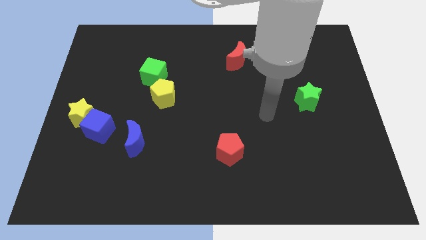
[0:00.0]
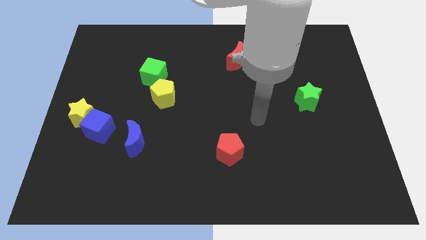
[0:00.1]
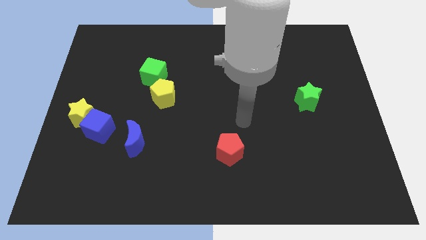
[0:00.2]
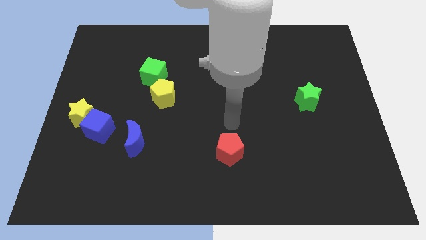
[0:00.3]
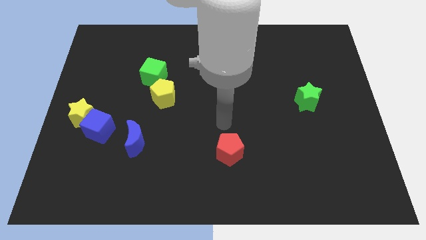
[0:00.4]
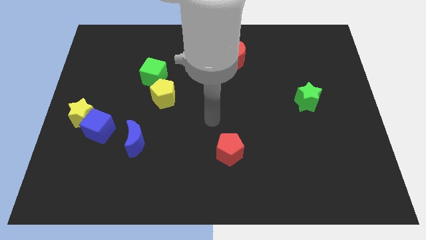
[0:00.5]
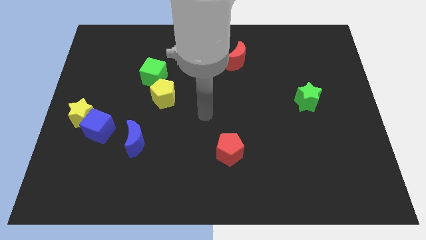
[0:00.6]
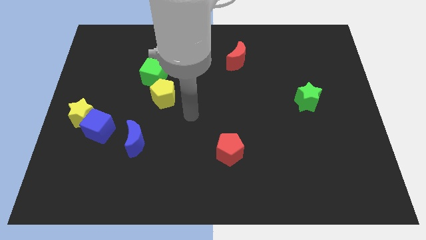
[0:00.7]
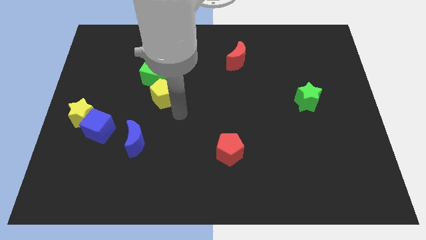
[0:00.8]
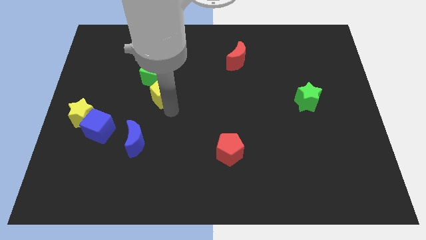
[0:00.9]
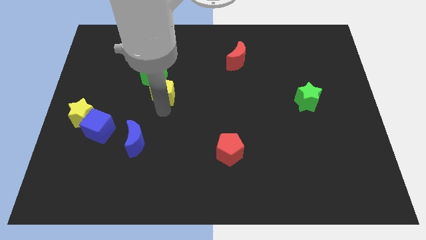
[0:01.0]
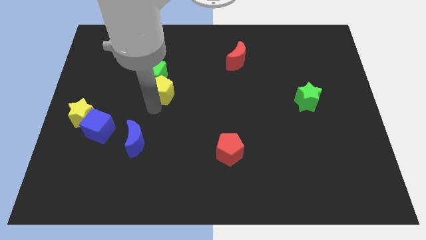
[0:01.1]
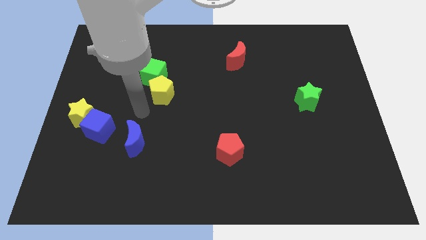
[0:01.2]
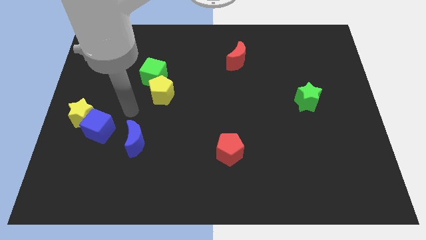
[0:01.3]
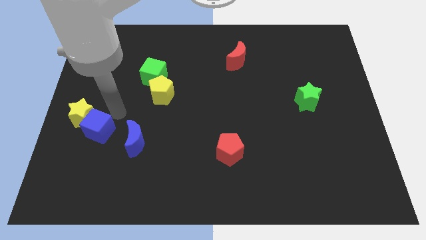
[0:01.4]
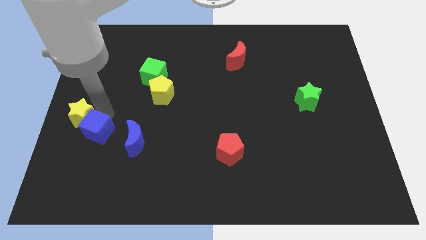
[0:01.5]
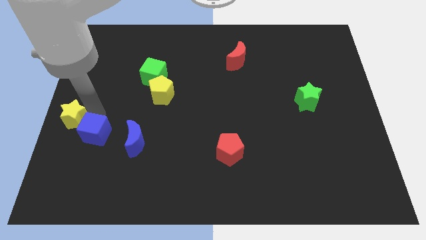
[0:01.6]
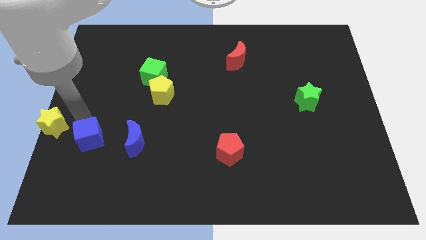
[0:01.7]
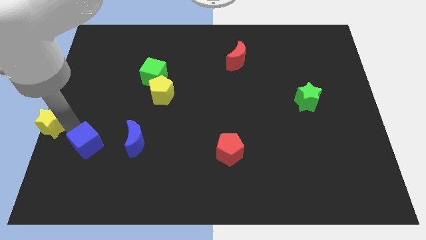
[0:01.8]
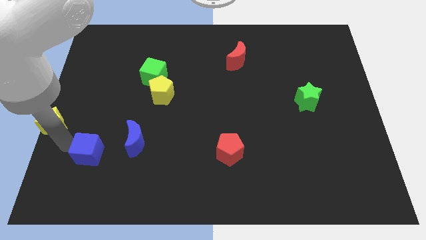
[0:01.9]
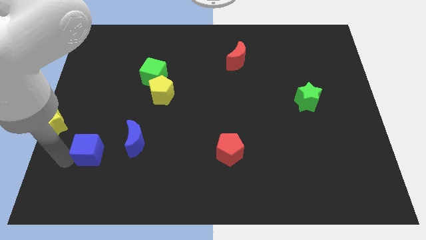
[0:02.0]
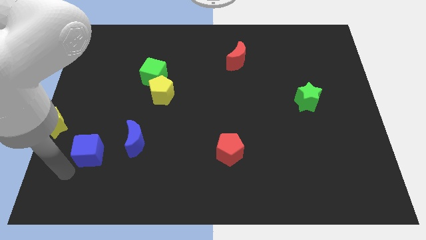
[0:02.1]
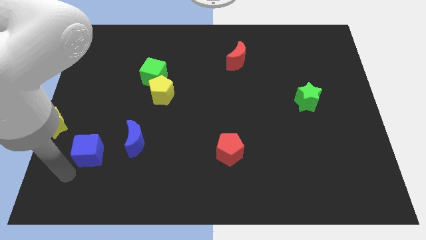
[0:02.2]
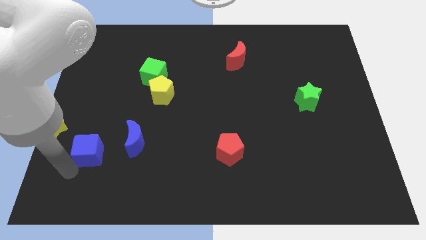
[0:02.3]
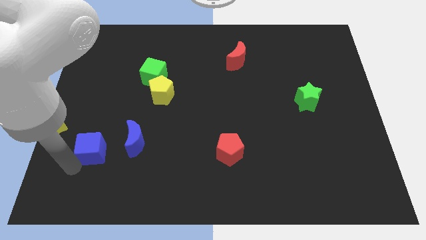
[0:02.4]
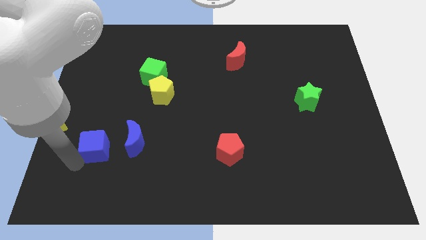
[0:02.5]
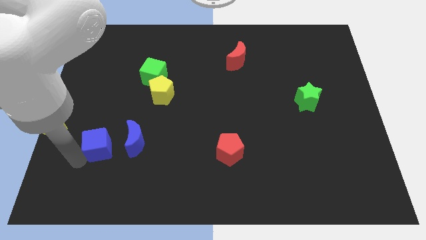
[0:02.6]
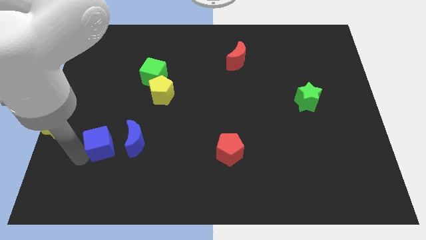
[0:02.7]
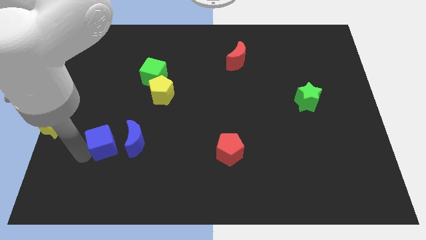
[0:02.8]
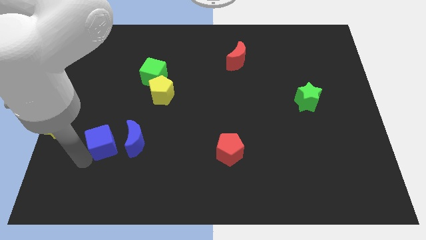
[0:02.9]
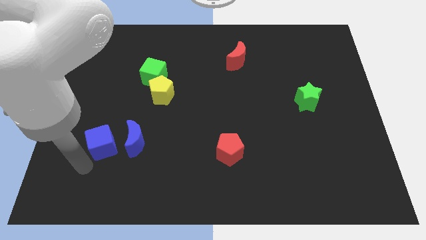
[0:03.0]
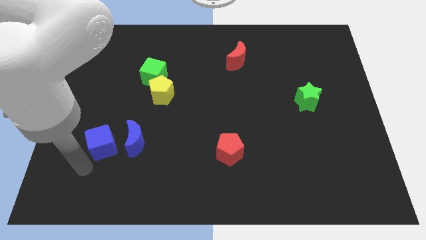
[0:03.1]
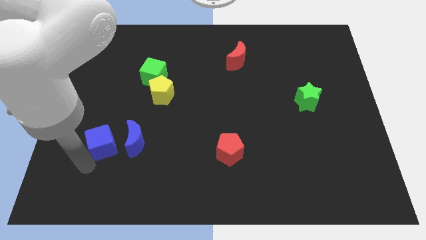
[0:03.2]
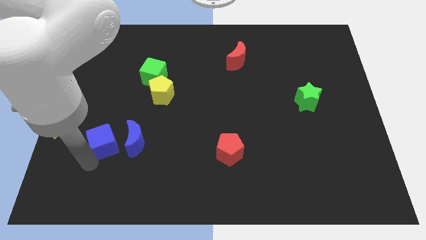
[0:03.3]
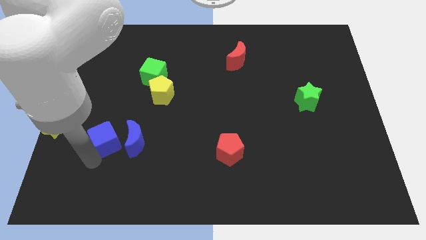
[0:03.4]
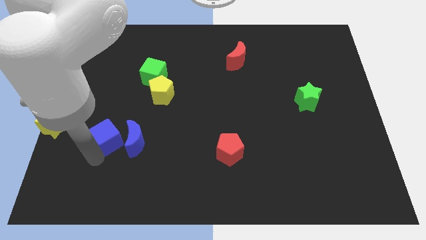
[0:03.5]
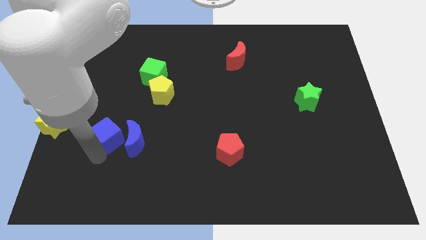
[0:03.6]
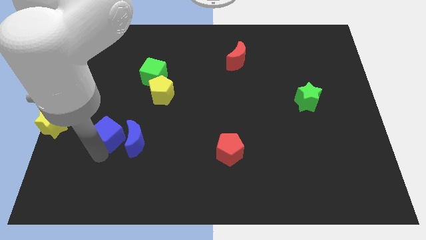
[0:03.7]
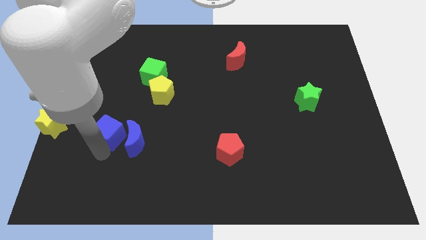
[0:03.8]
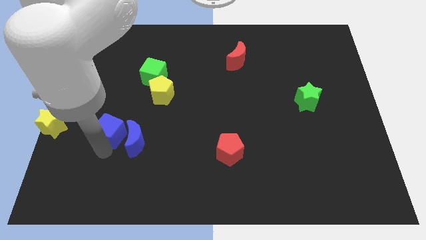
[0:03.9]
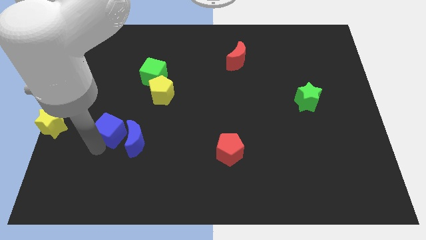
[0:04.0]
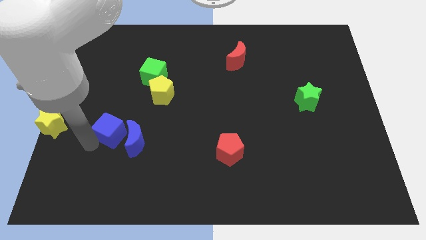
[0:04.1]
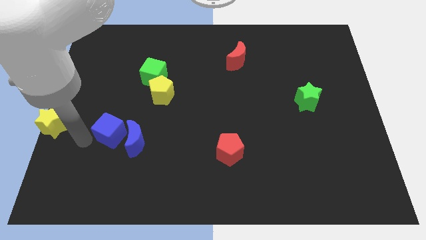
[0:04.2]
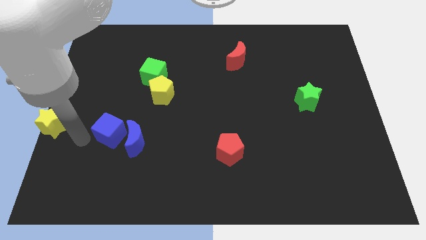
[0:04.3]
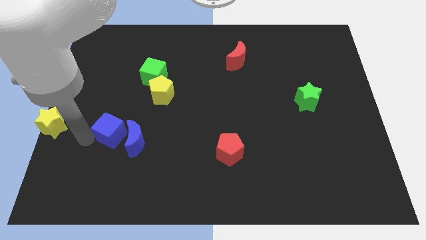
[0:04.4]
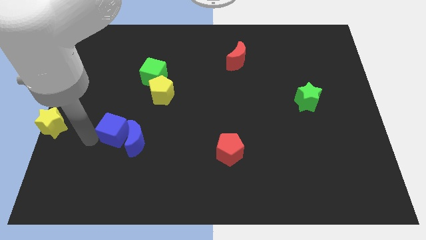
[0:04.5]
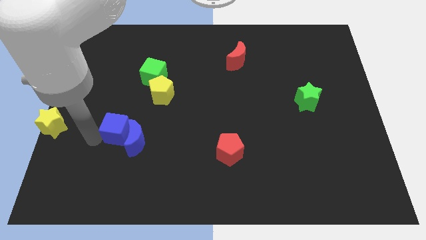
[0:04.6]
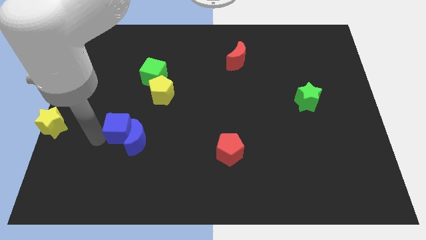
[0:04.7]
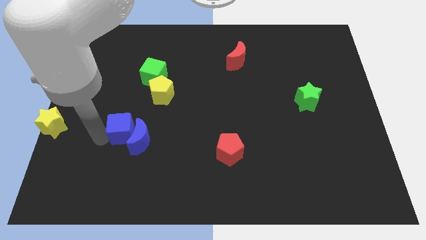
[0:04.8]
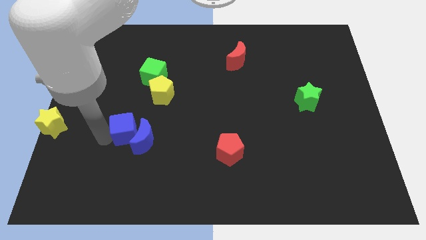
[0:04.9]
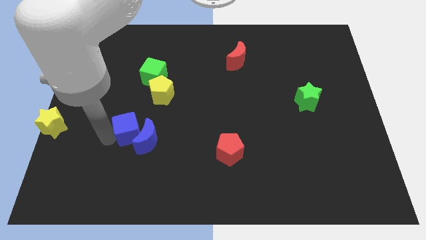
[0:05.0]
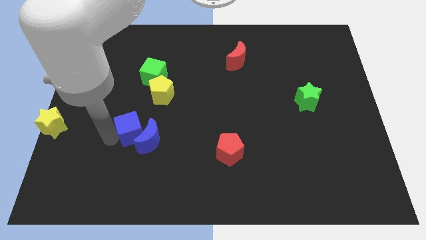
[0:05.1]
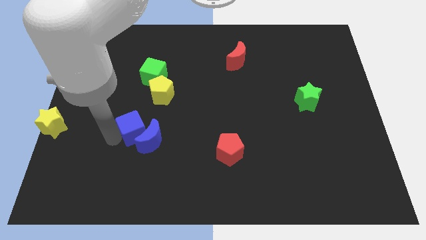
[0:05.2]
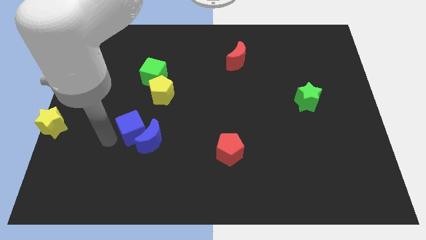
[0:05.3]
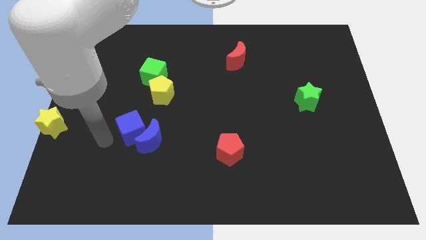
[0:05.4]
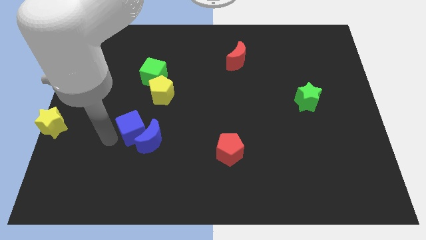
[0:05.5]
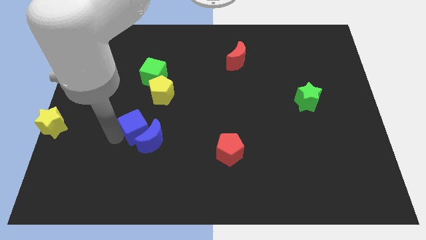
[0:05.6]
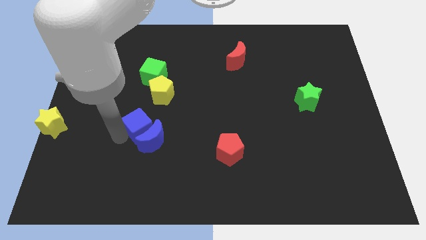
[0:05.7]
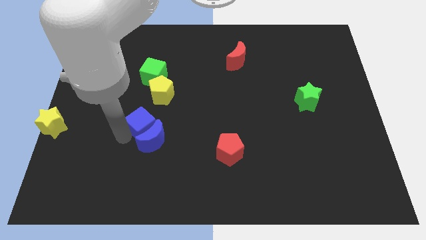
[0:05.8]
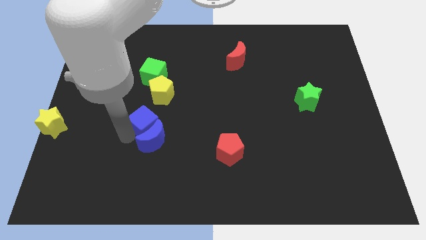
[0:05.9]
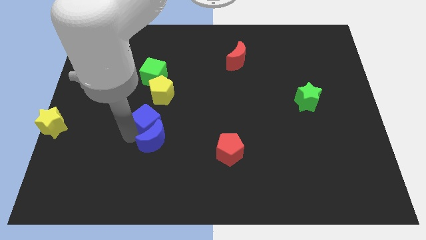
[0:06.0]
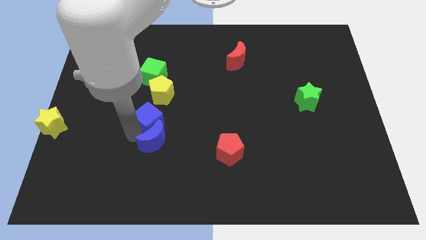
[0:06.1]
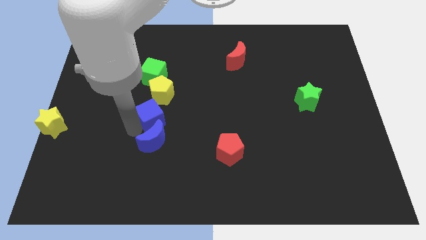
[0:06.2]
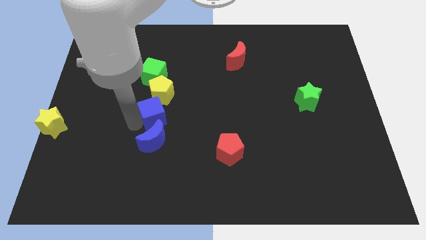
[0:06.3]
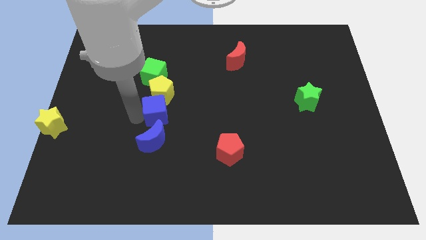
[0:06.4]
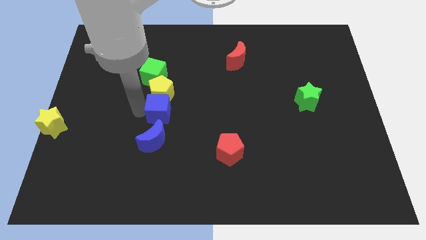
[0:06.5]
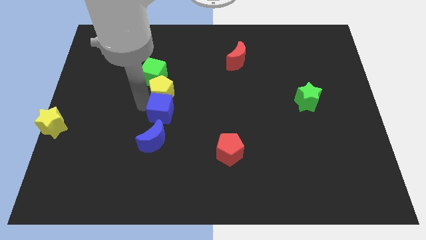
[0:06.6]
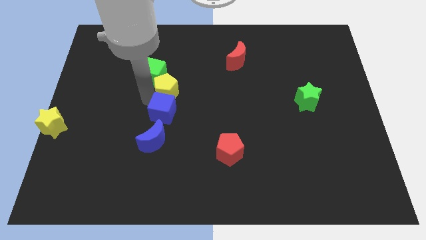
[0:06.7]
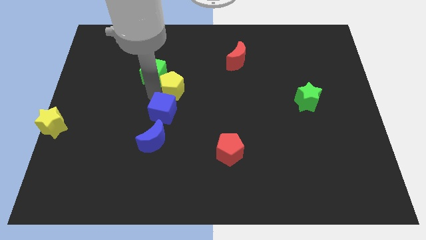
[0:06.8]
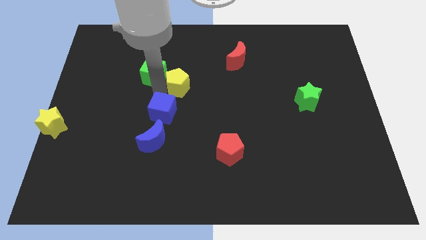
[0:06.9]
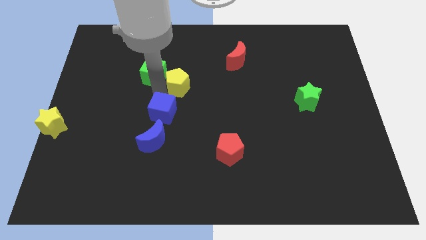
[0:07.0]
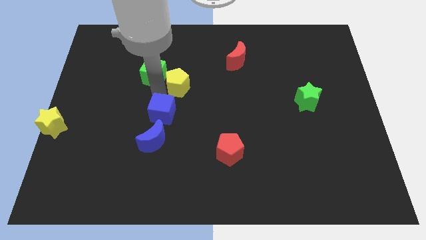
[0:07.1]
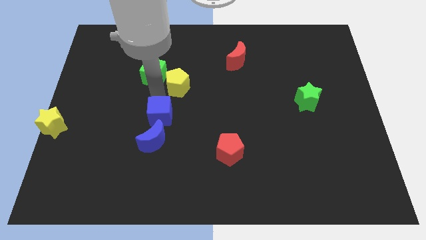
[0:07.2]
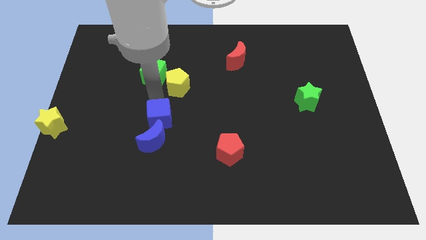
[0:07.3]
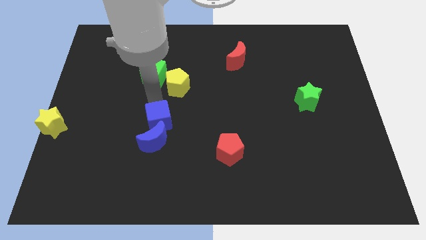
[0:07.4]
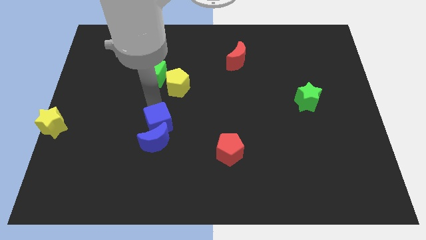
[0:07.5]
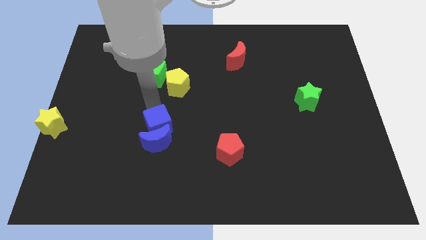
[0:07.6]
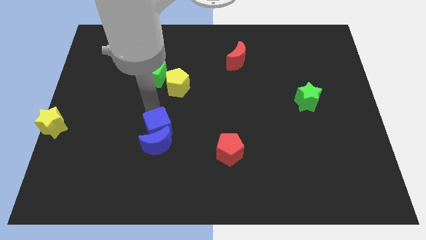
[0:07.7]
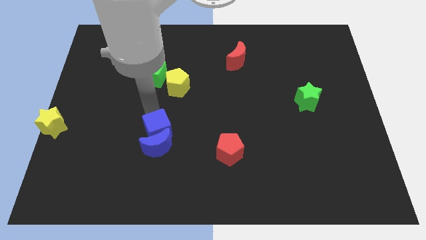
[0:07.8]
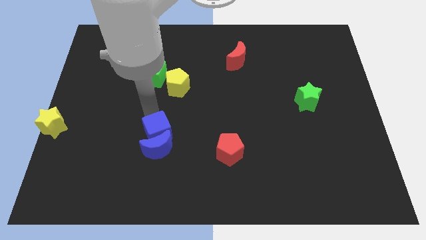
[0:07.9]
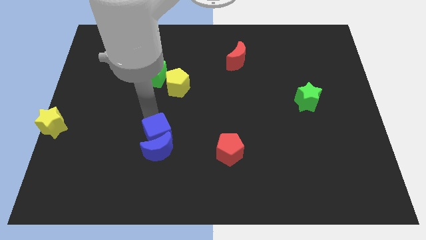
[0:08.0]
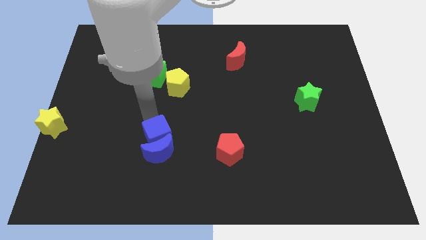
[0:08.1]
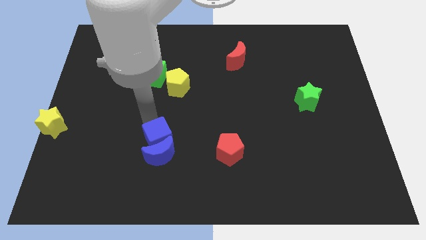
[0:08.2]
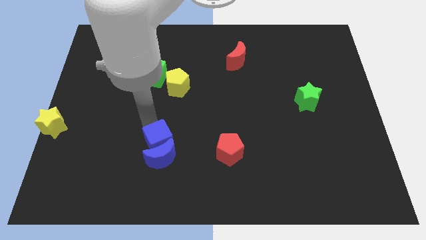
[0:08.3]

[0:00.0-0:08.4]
slide the blue cube just left of the red pentagon

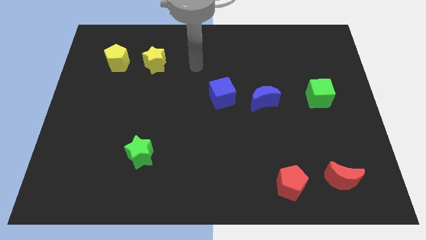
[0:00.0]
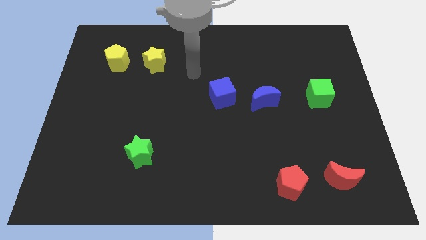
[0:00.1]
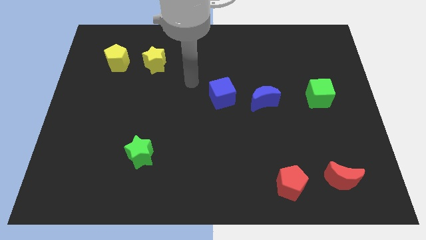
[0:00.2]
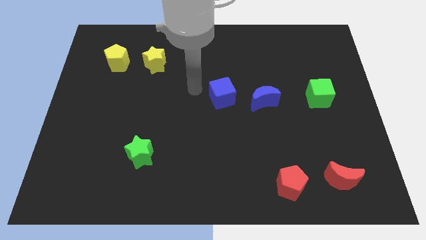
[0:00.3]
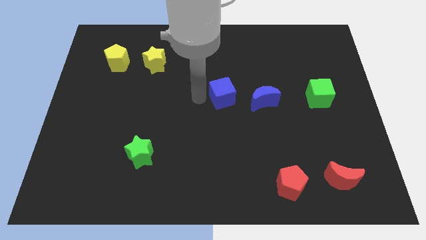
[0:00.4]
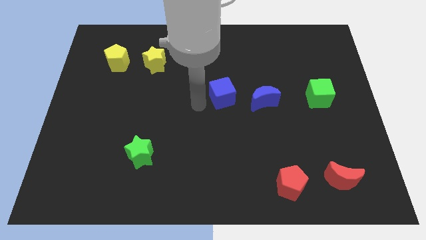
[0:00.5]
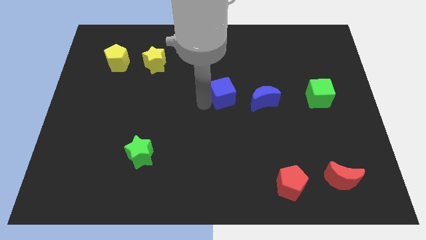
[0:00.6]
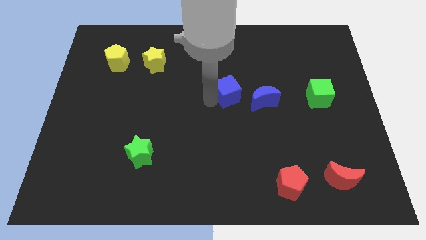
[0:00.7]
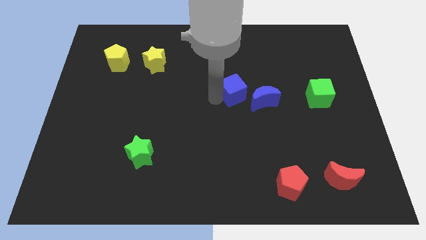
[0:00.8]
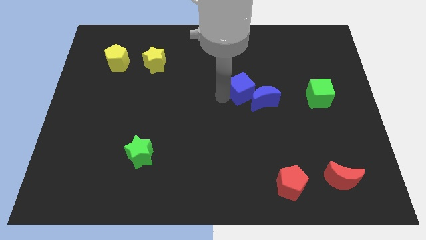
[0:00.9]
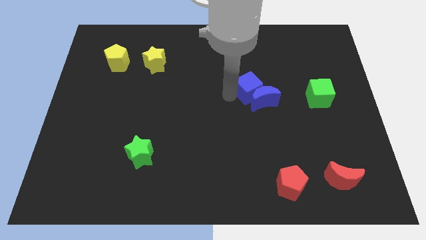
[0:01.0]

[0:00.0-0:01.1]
put the blue cube to the top of the blue moon
